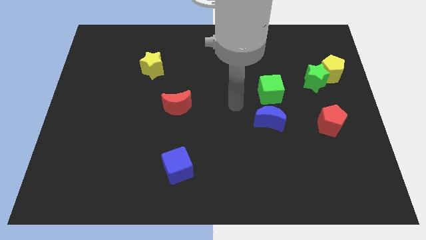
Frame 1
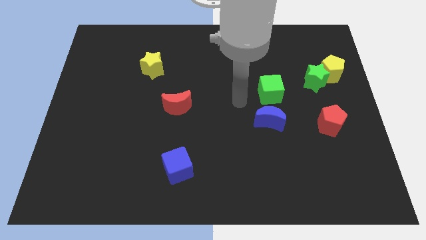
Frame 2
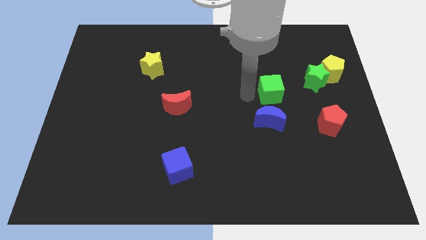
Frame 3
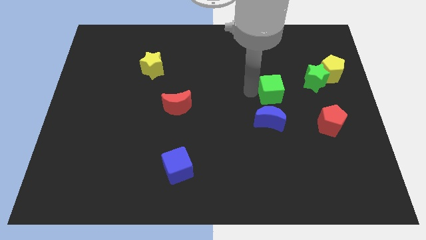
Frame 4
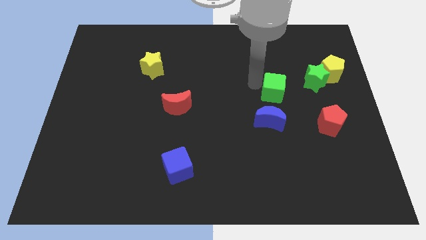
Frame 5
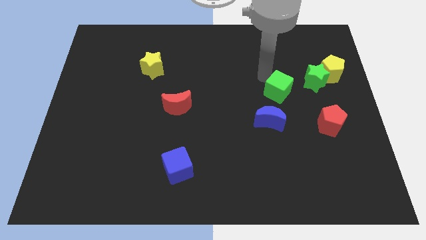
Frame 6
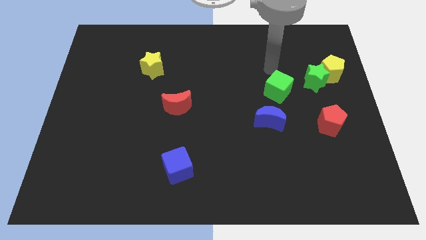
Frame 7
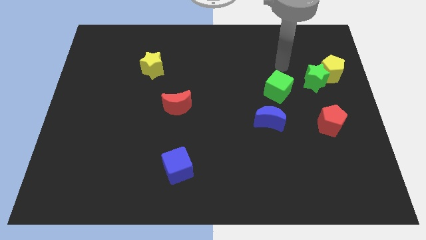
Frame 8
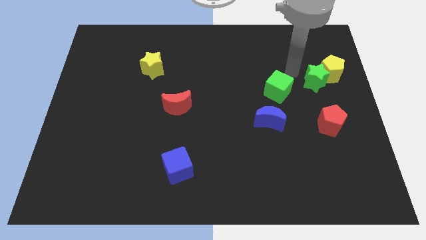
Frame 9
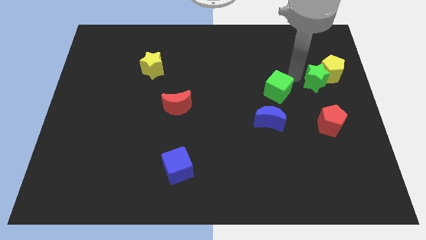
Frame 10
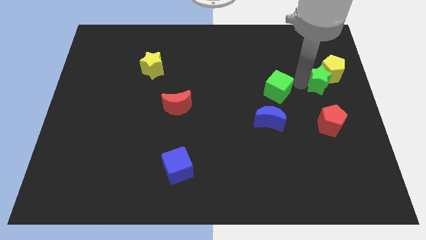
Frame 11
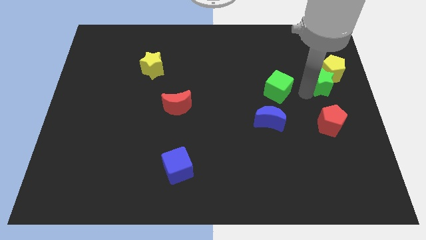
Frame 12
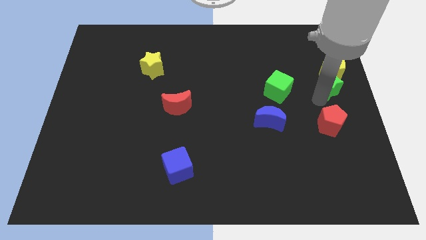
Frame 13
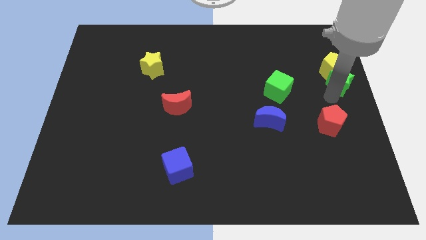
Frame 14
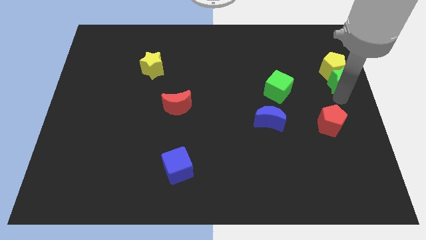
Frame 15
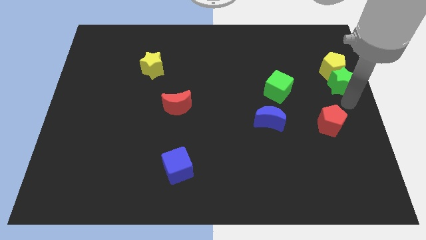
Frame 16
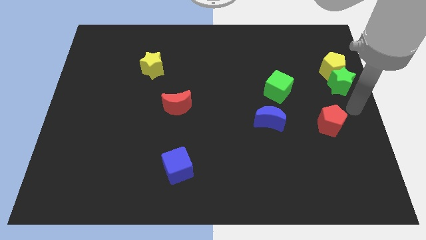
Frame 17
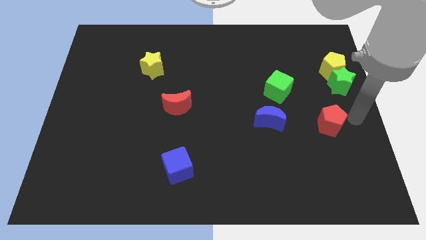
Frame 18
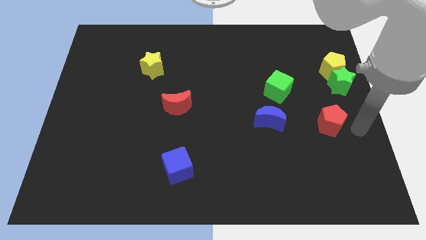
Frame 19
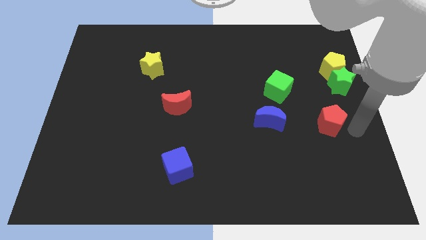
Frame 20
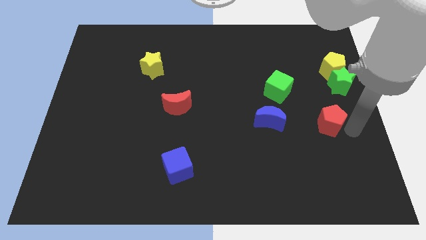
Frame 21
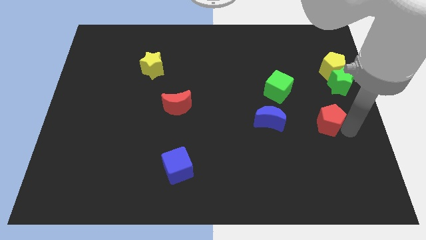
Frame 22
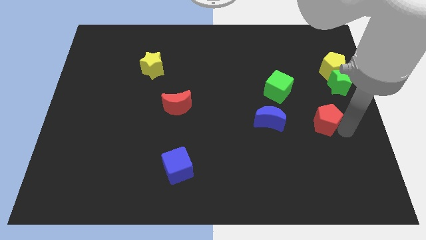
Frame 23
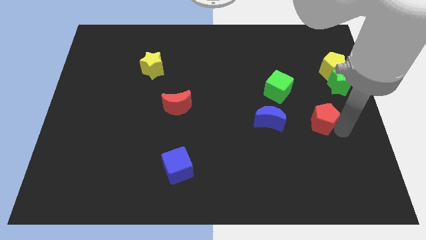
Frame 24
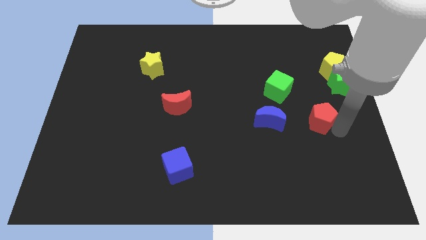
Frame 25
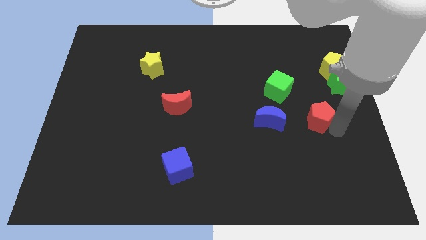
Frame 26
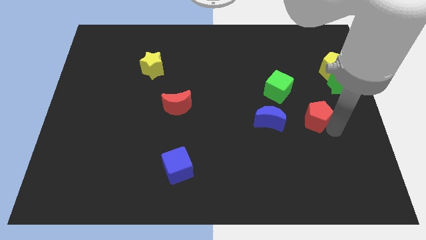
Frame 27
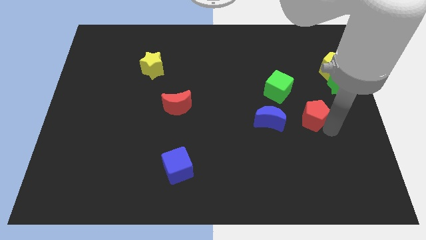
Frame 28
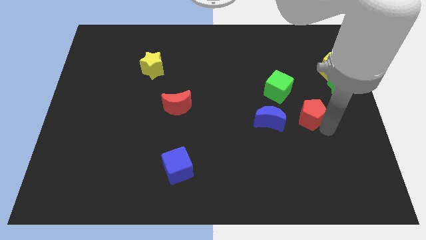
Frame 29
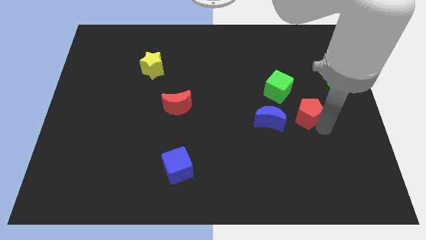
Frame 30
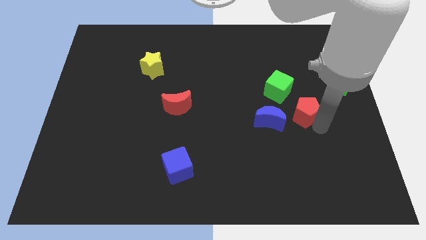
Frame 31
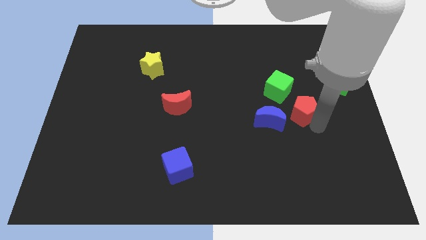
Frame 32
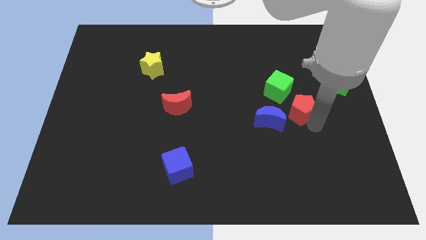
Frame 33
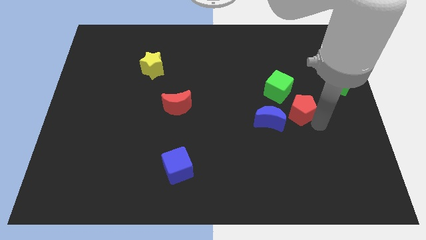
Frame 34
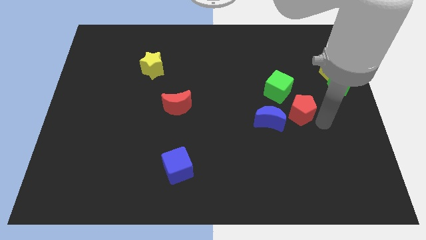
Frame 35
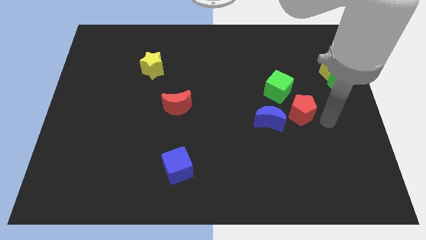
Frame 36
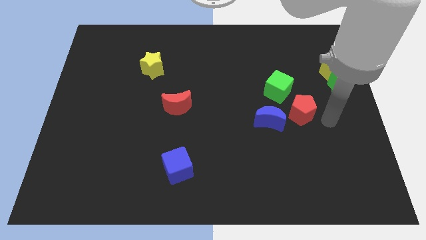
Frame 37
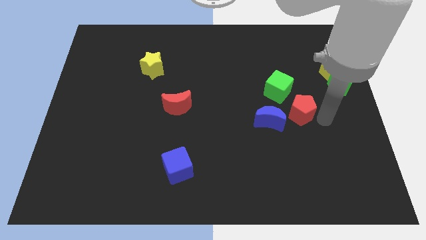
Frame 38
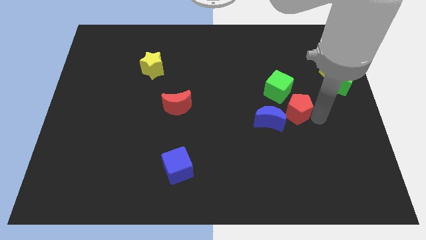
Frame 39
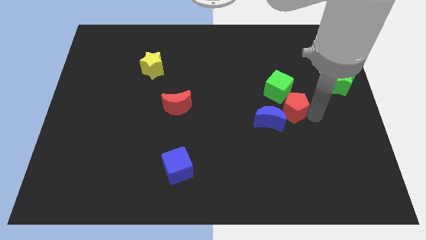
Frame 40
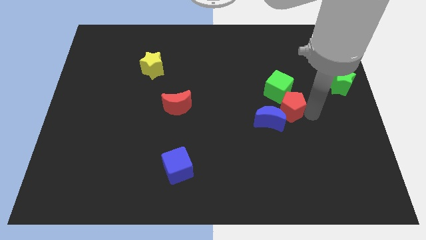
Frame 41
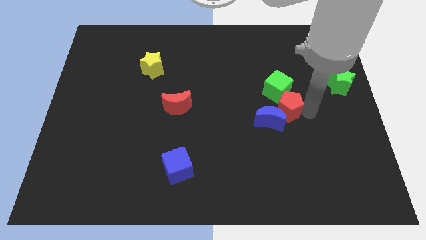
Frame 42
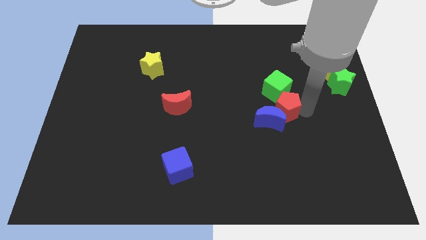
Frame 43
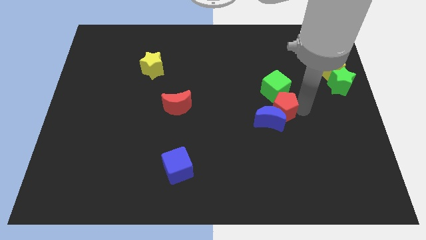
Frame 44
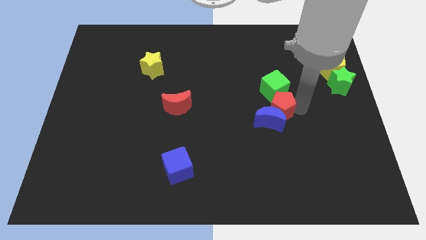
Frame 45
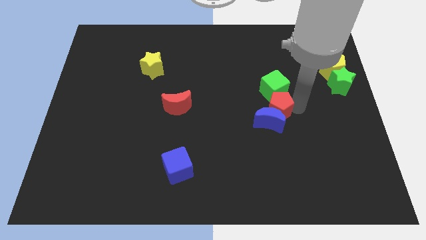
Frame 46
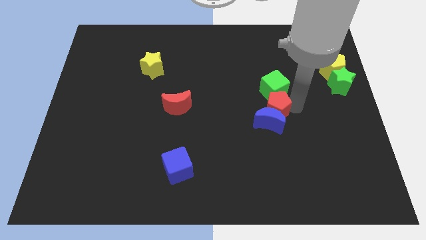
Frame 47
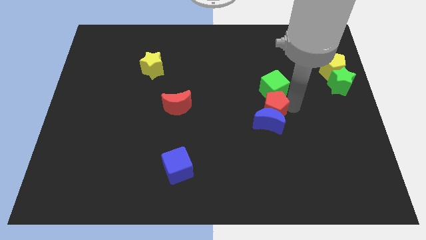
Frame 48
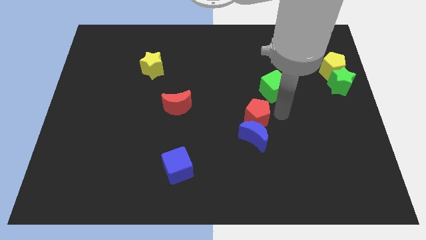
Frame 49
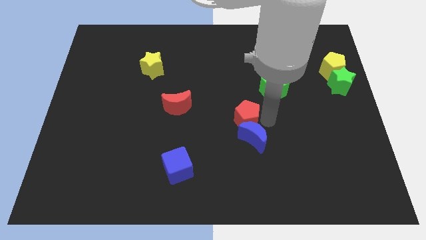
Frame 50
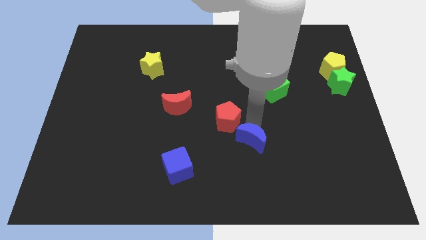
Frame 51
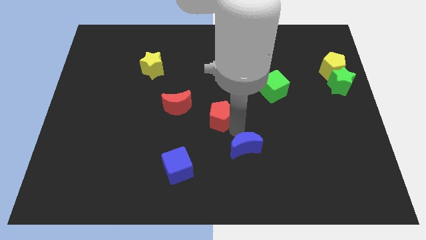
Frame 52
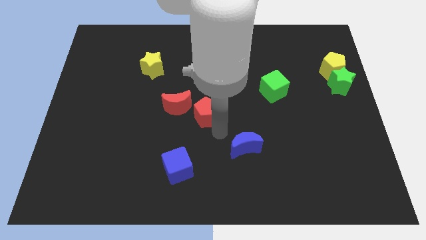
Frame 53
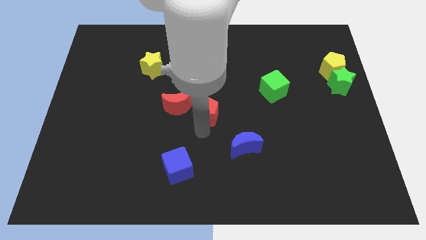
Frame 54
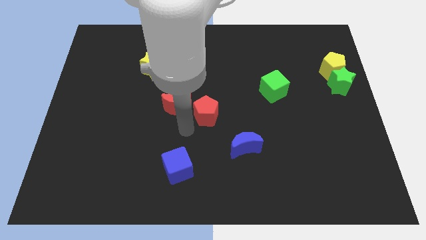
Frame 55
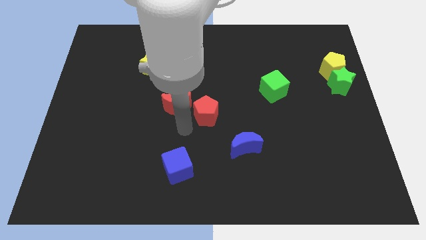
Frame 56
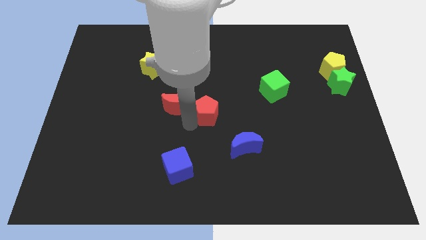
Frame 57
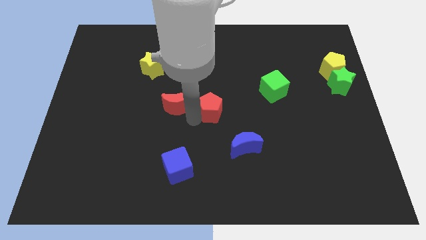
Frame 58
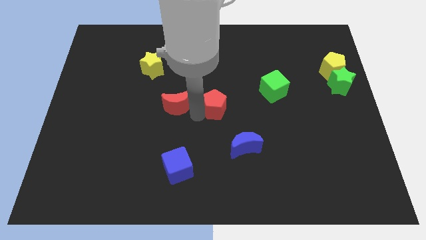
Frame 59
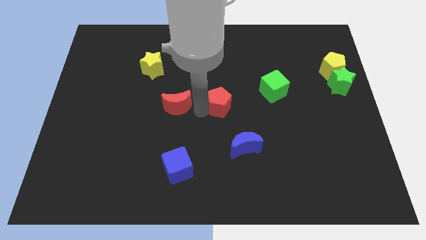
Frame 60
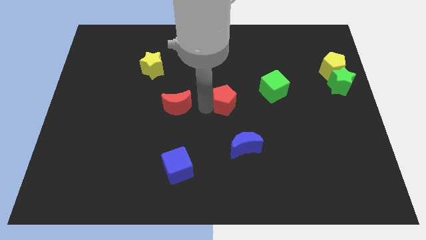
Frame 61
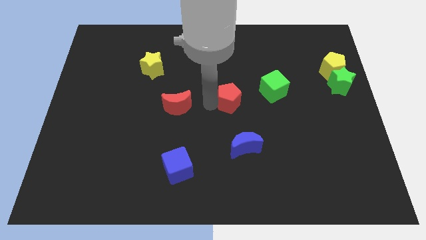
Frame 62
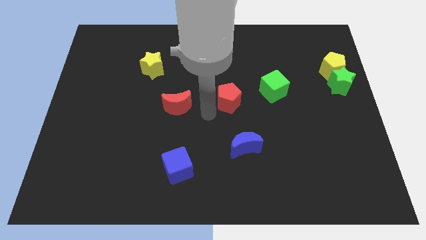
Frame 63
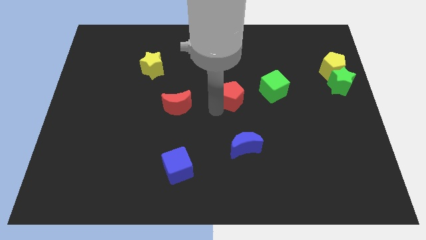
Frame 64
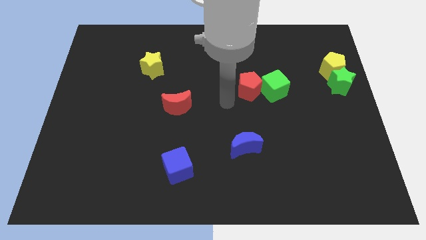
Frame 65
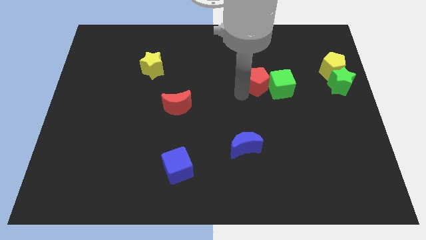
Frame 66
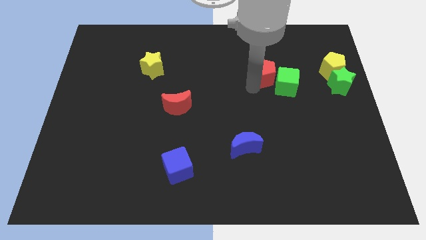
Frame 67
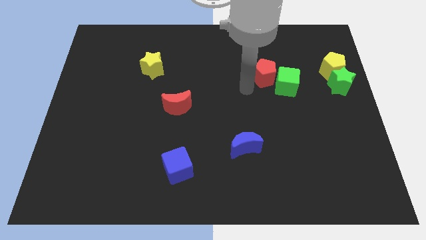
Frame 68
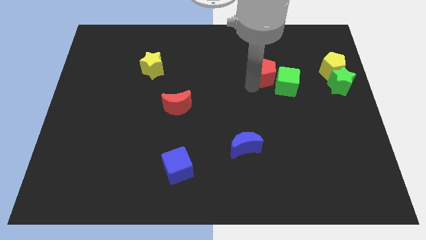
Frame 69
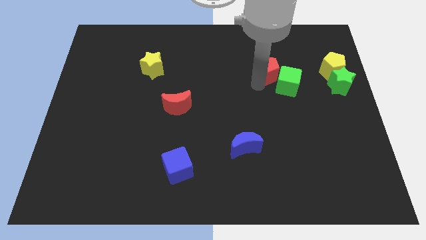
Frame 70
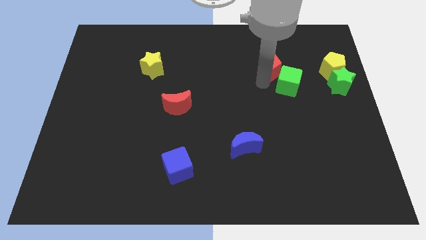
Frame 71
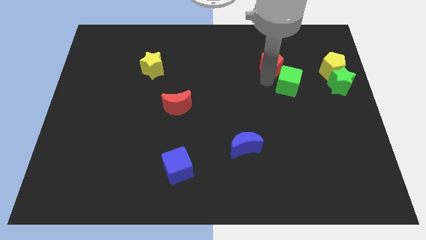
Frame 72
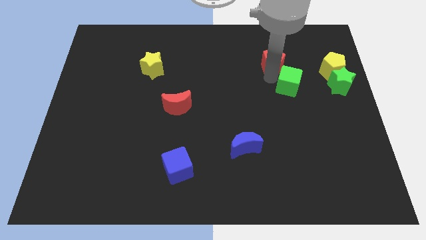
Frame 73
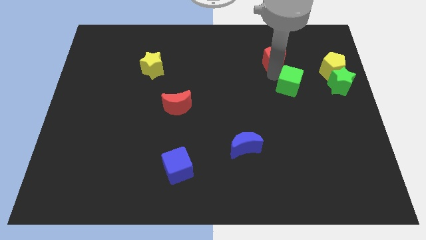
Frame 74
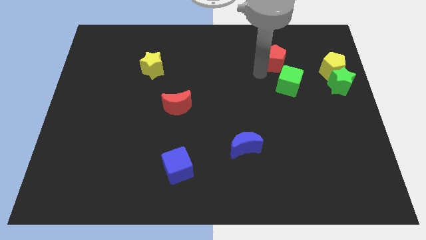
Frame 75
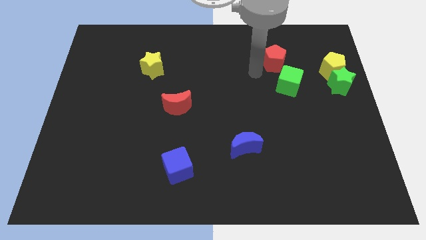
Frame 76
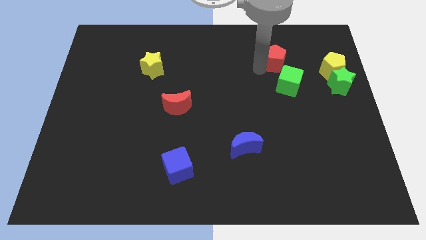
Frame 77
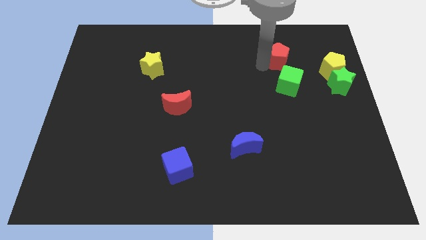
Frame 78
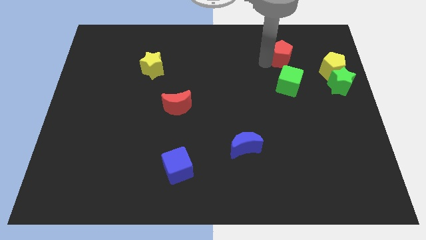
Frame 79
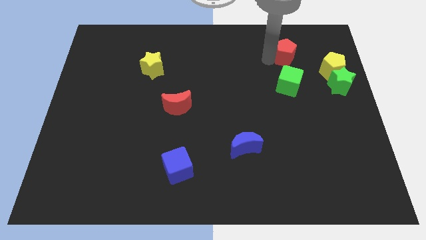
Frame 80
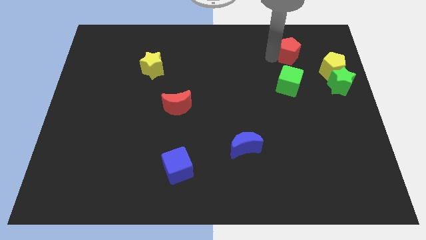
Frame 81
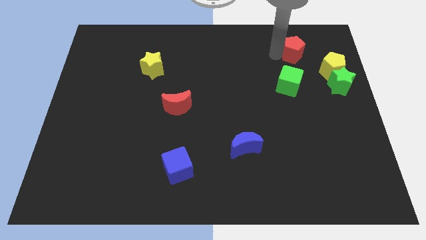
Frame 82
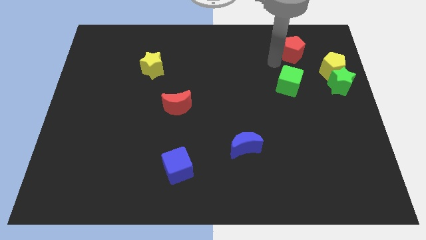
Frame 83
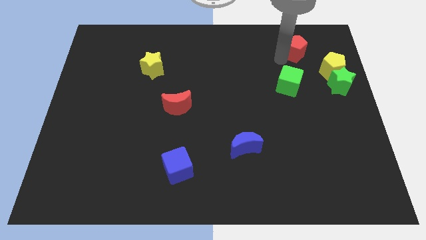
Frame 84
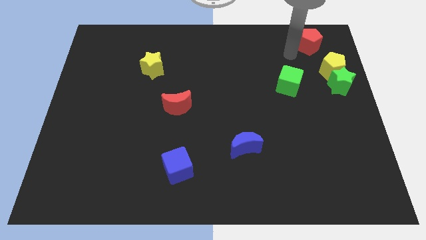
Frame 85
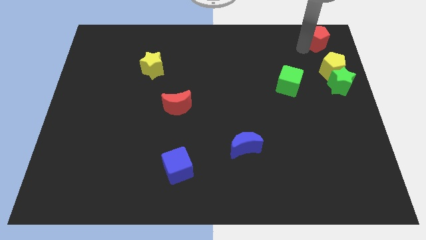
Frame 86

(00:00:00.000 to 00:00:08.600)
move the red pentagon to the top right corner
